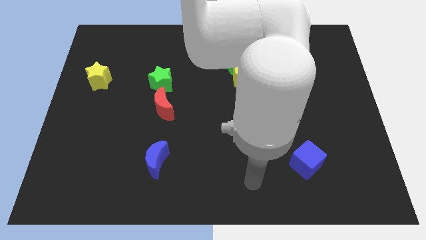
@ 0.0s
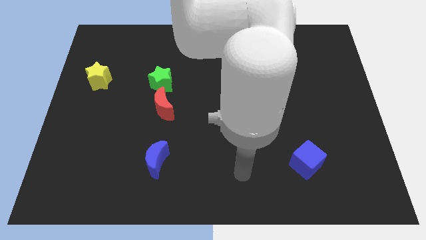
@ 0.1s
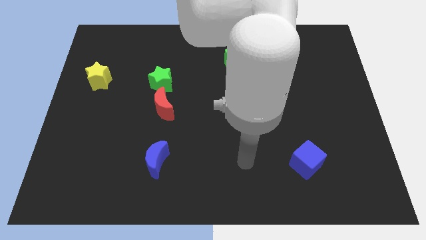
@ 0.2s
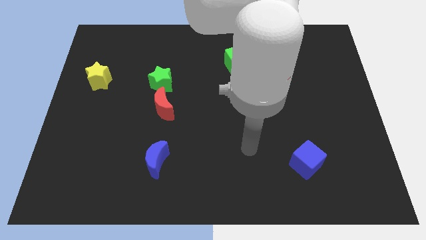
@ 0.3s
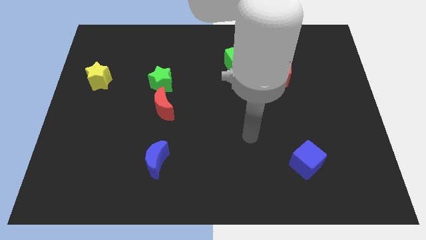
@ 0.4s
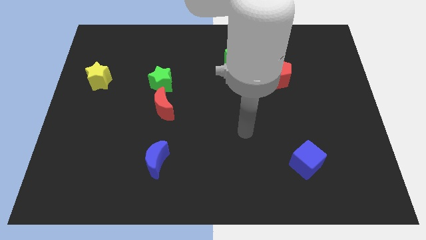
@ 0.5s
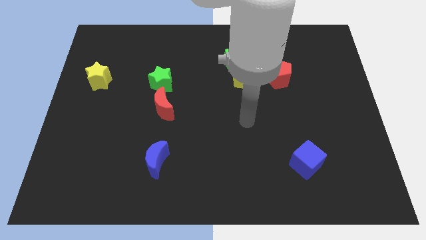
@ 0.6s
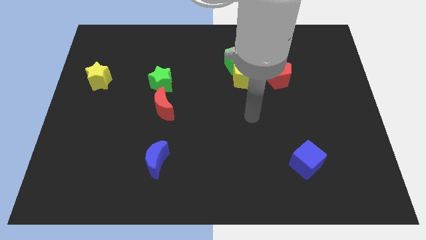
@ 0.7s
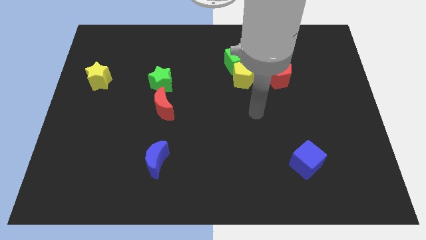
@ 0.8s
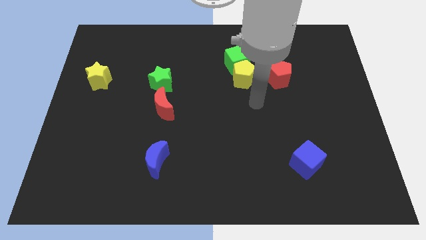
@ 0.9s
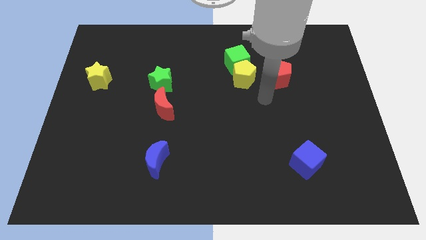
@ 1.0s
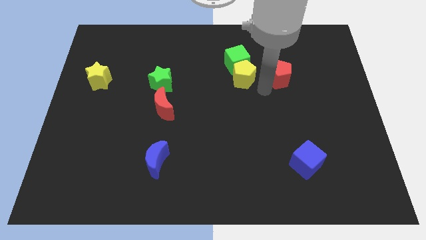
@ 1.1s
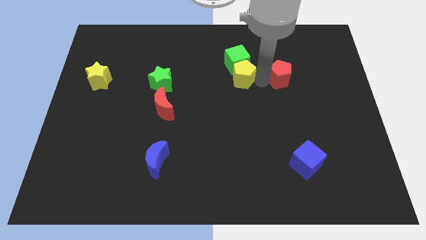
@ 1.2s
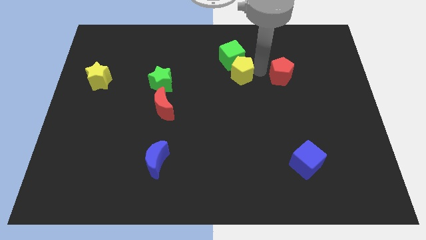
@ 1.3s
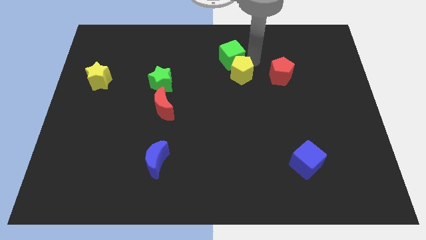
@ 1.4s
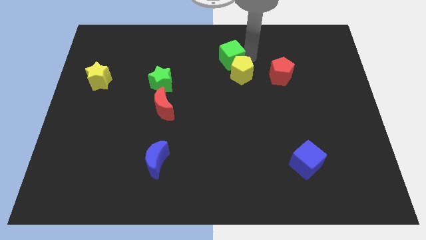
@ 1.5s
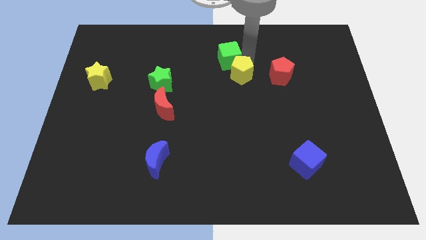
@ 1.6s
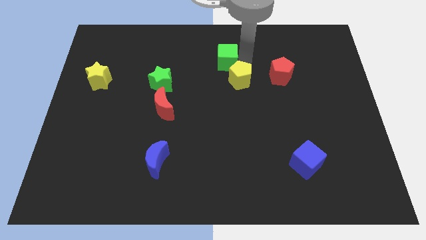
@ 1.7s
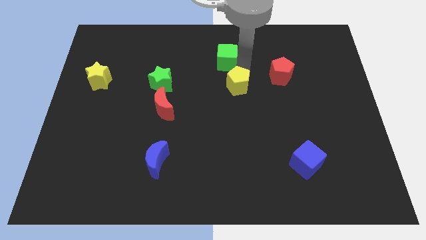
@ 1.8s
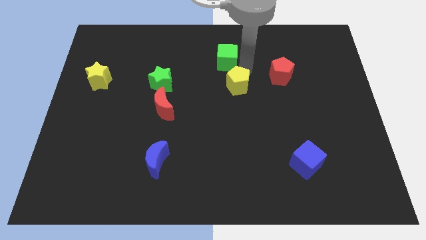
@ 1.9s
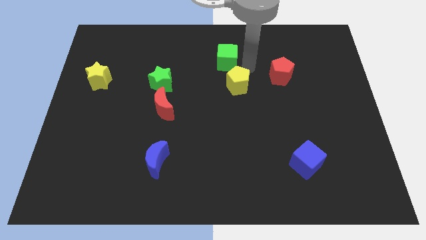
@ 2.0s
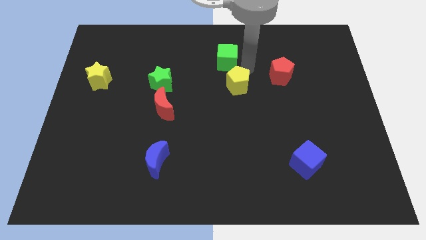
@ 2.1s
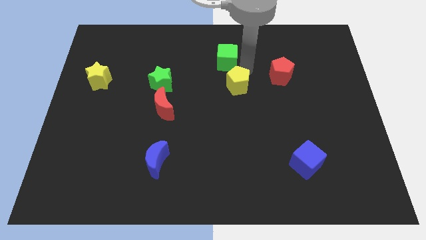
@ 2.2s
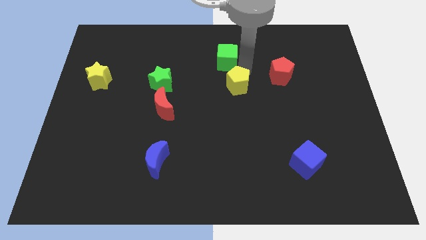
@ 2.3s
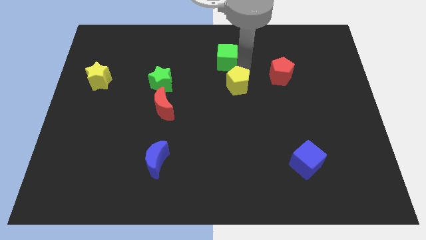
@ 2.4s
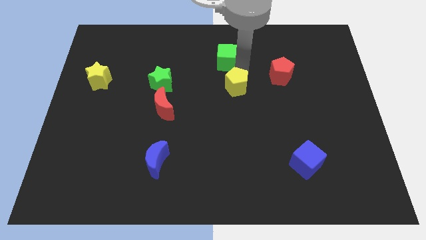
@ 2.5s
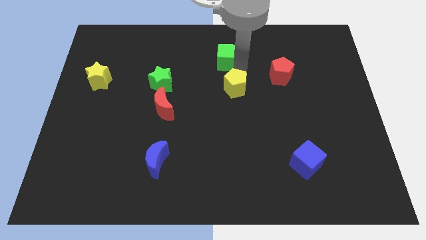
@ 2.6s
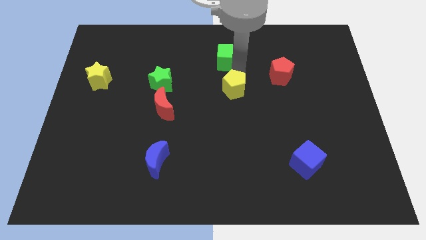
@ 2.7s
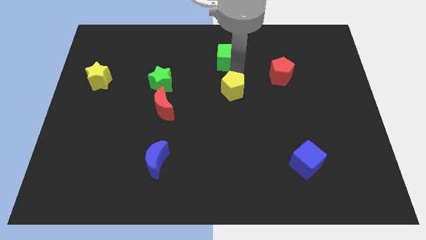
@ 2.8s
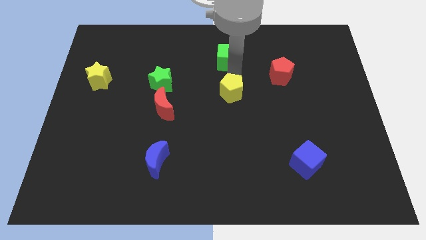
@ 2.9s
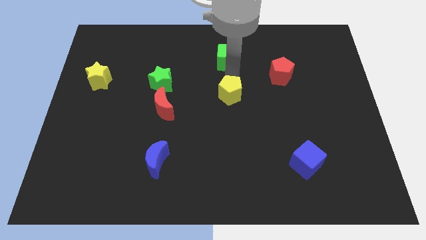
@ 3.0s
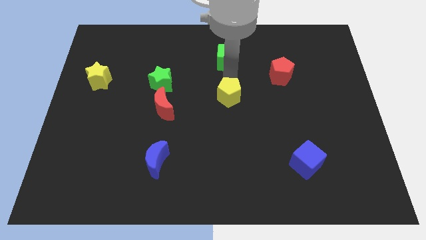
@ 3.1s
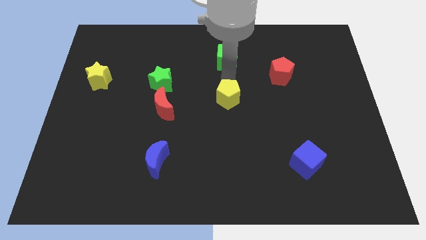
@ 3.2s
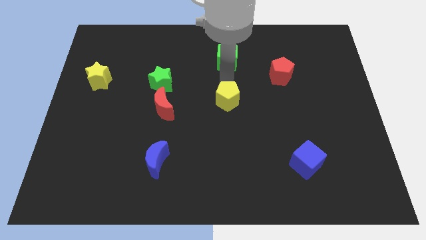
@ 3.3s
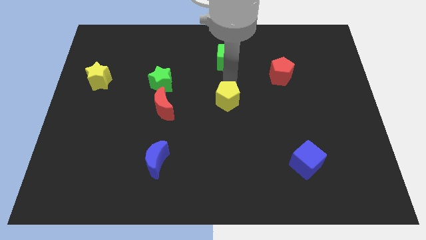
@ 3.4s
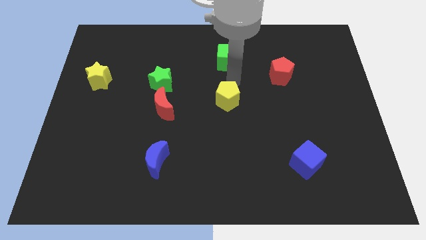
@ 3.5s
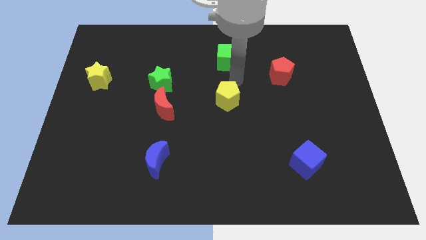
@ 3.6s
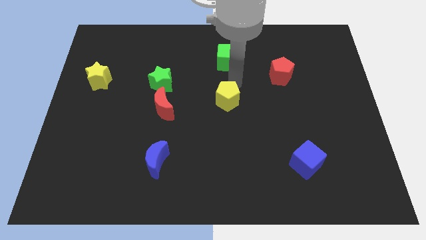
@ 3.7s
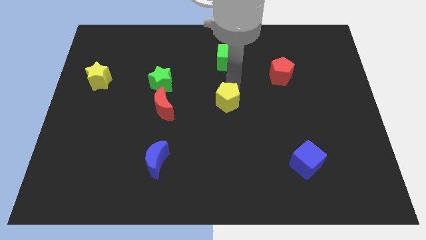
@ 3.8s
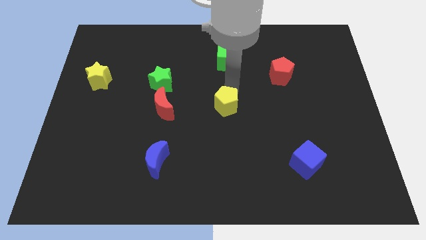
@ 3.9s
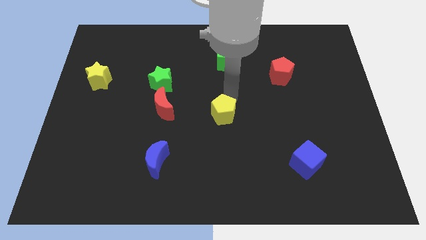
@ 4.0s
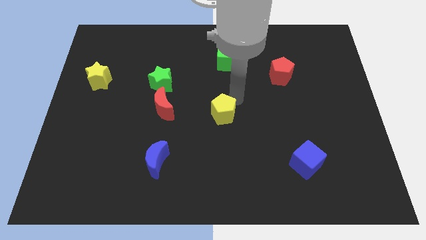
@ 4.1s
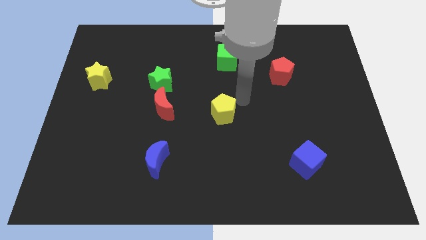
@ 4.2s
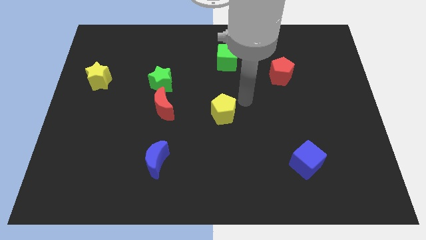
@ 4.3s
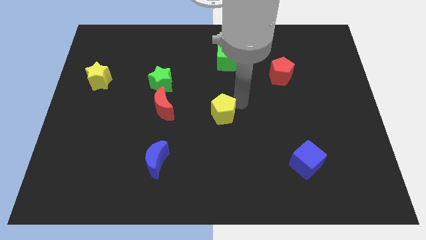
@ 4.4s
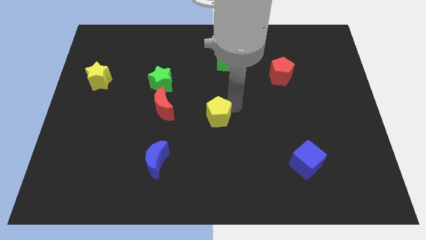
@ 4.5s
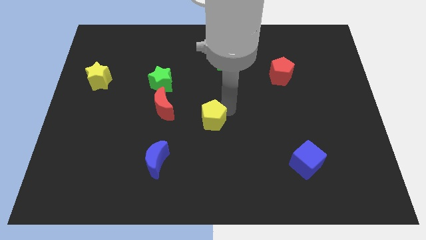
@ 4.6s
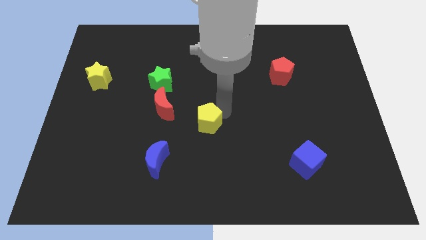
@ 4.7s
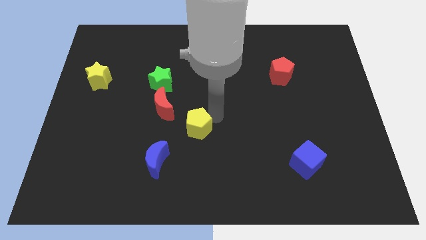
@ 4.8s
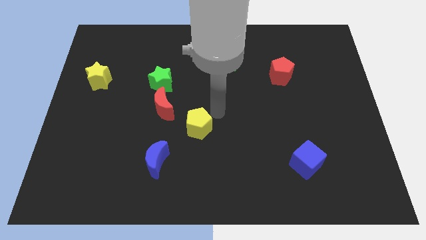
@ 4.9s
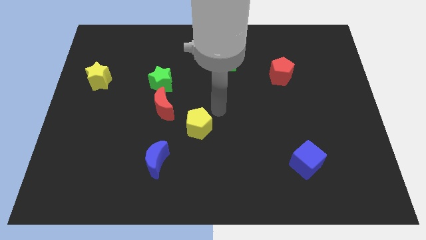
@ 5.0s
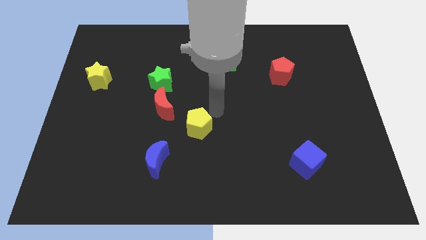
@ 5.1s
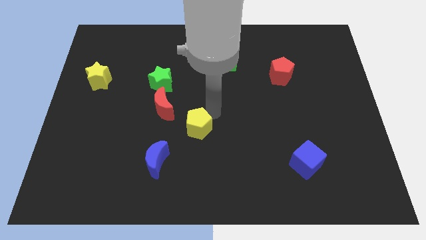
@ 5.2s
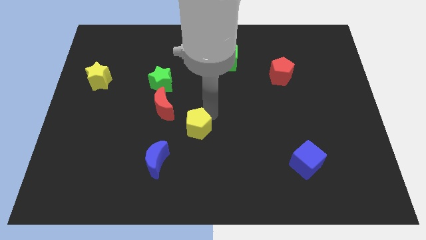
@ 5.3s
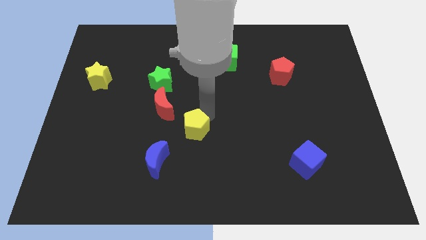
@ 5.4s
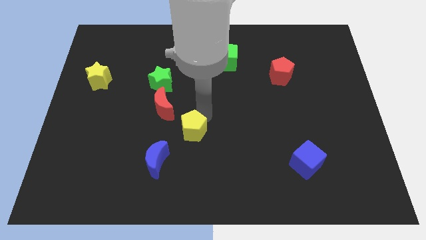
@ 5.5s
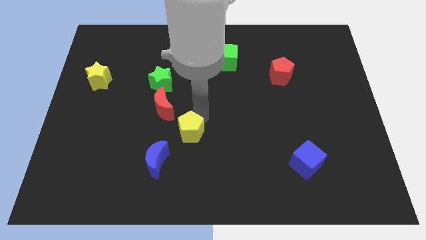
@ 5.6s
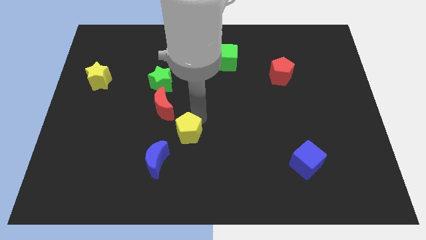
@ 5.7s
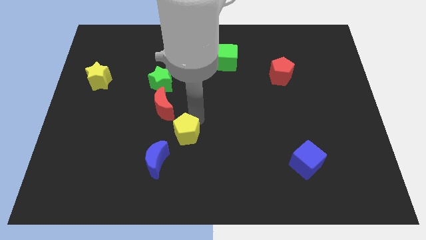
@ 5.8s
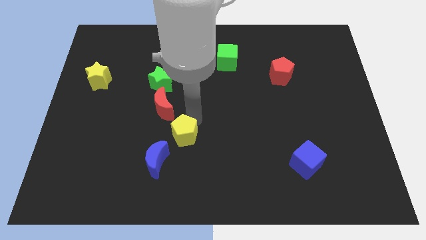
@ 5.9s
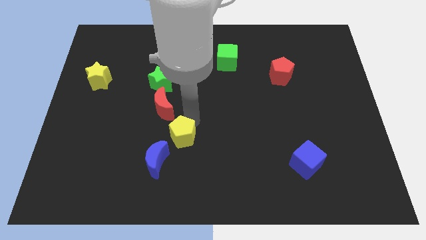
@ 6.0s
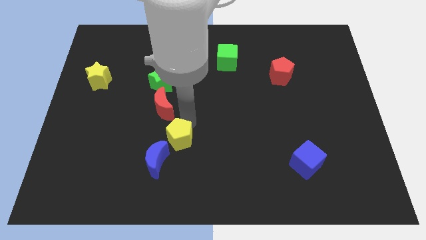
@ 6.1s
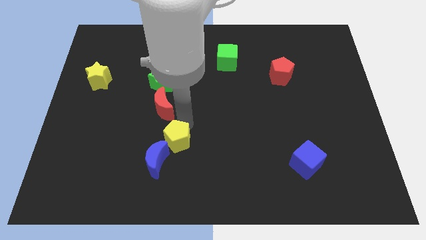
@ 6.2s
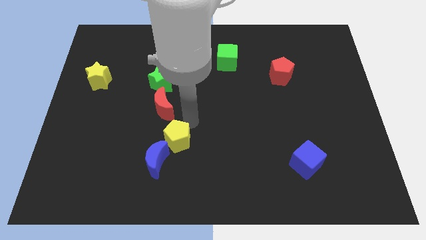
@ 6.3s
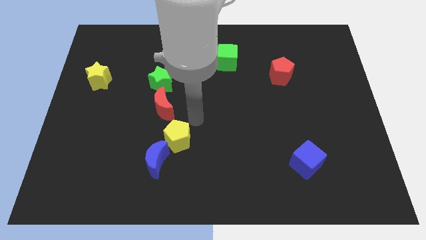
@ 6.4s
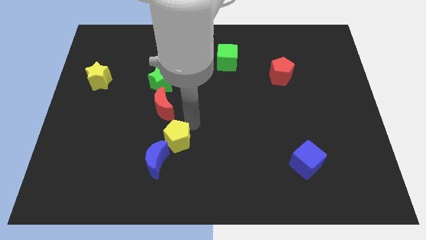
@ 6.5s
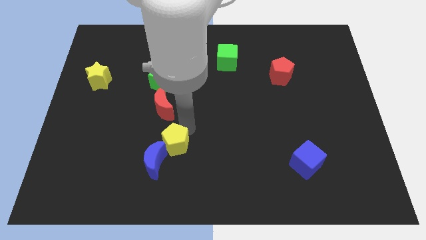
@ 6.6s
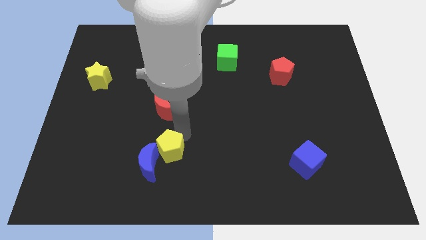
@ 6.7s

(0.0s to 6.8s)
slide the yellow pentagon to the blue moon

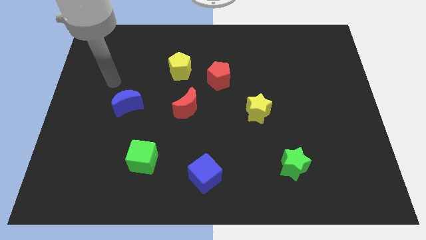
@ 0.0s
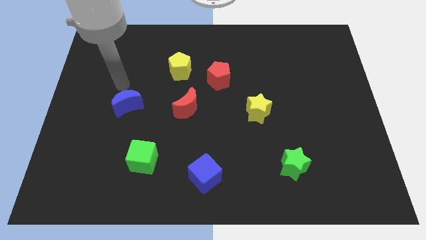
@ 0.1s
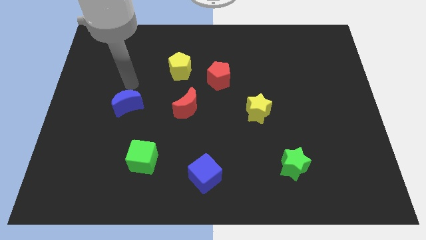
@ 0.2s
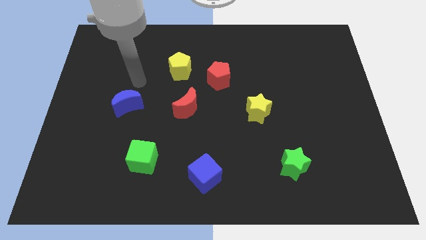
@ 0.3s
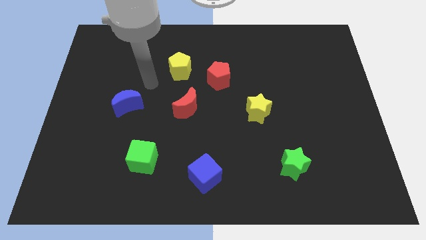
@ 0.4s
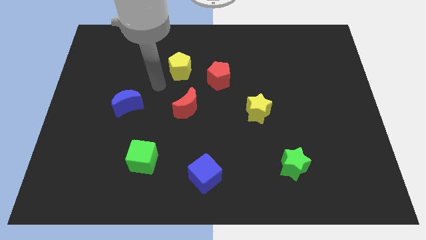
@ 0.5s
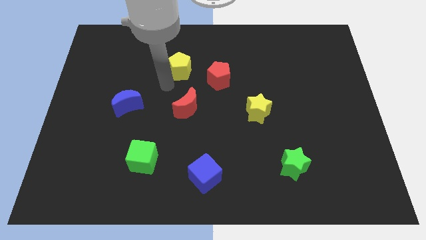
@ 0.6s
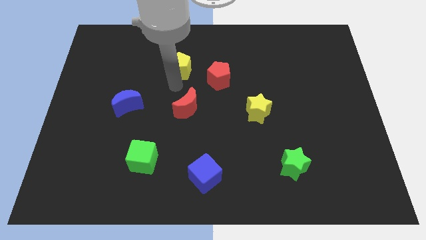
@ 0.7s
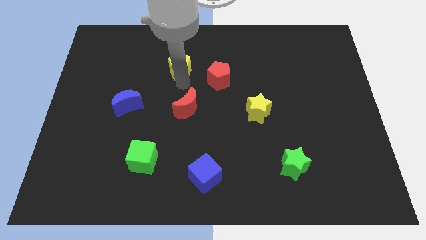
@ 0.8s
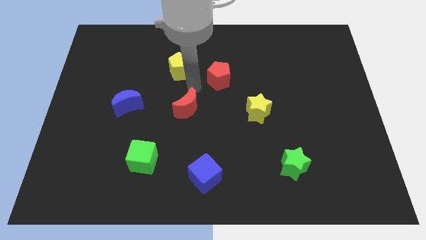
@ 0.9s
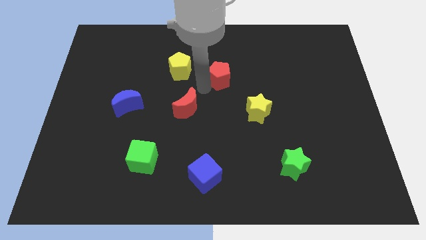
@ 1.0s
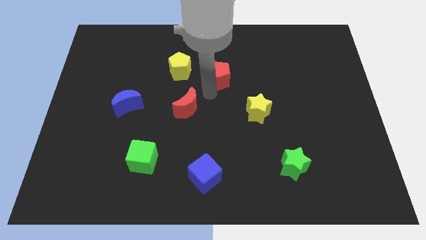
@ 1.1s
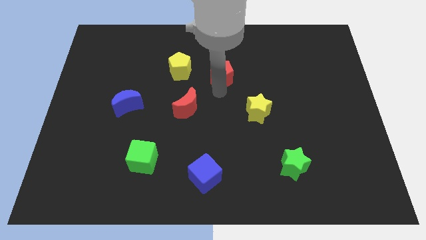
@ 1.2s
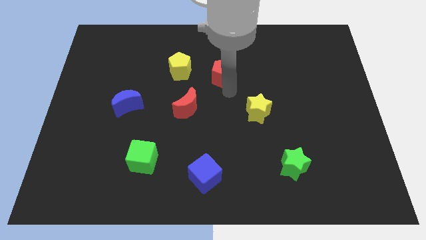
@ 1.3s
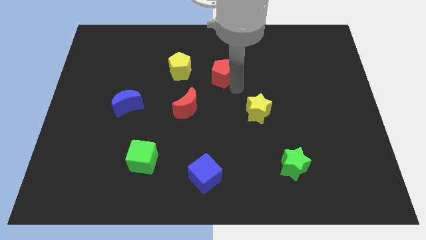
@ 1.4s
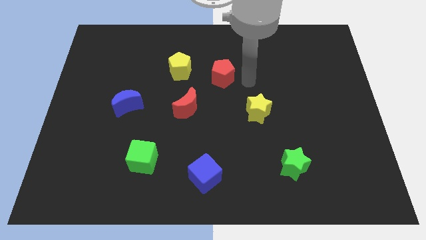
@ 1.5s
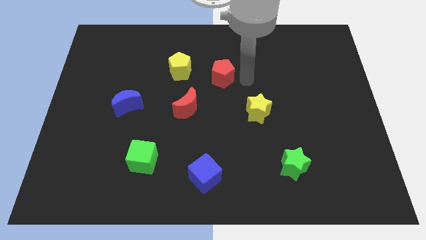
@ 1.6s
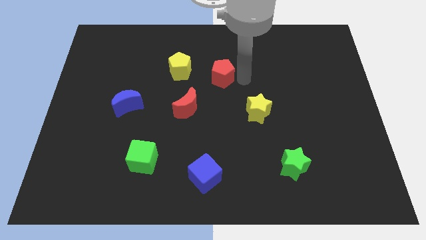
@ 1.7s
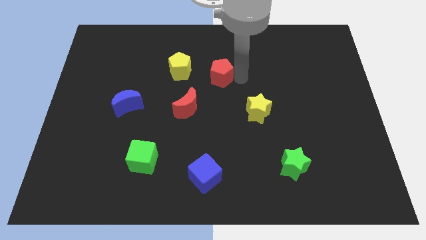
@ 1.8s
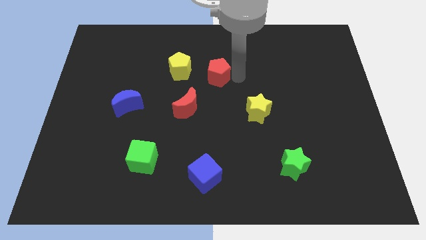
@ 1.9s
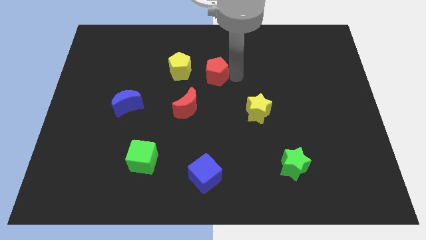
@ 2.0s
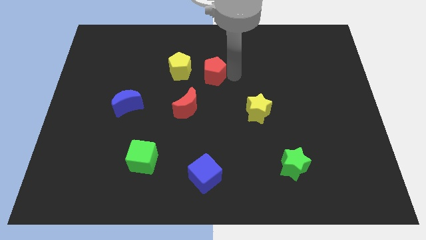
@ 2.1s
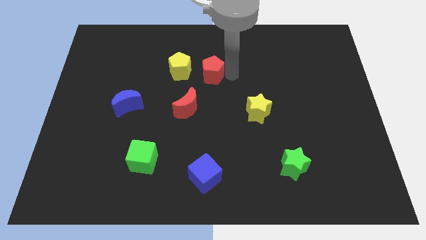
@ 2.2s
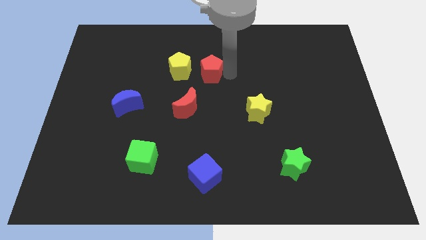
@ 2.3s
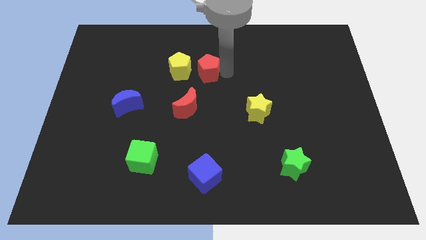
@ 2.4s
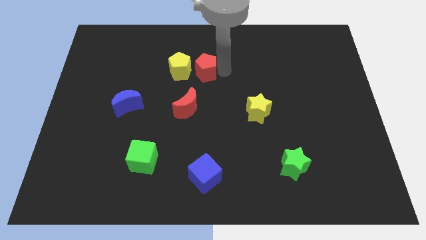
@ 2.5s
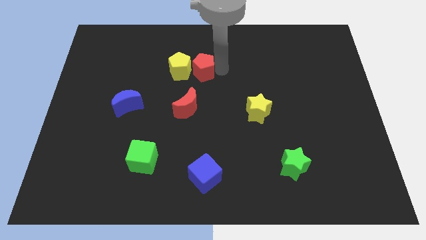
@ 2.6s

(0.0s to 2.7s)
put the red pentagon next to the yellow pentagon
